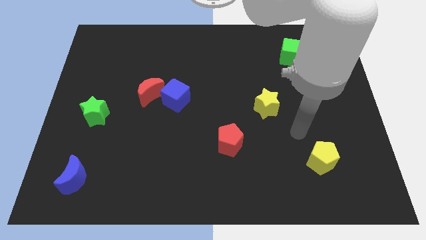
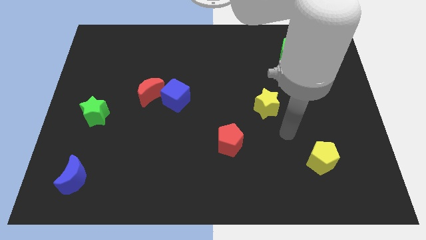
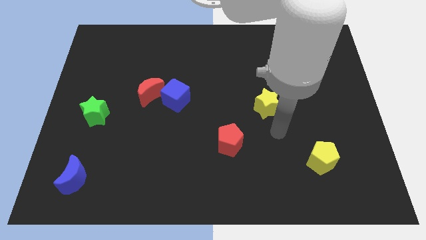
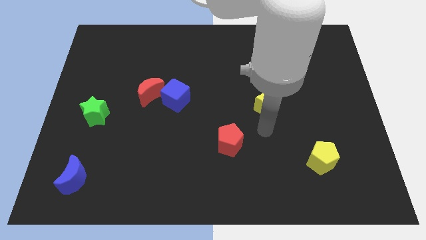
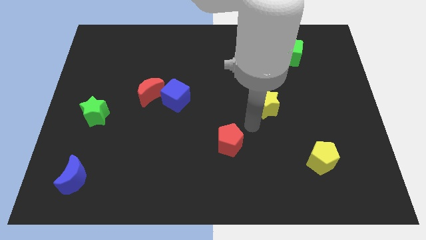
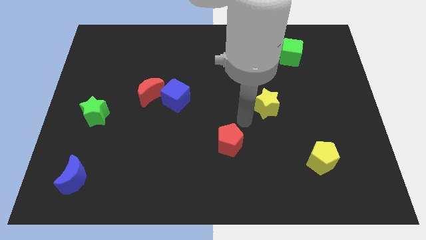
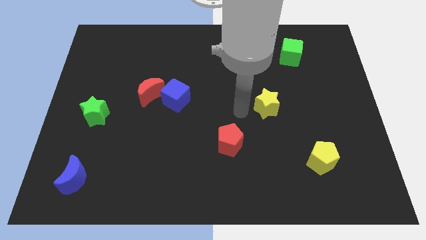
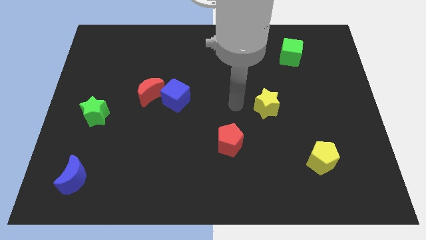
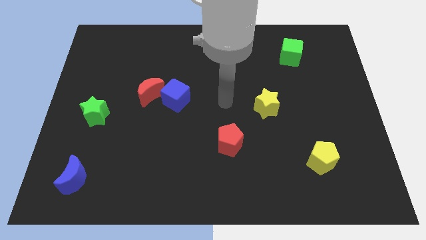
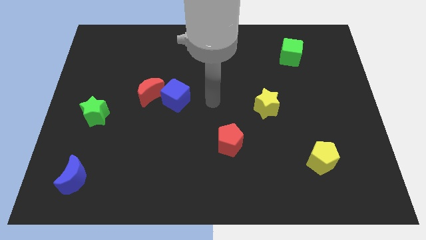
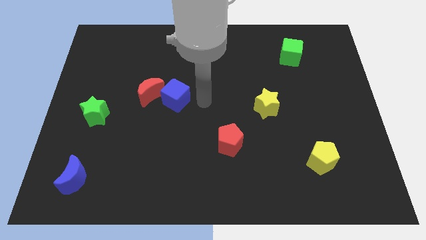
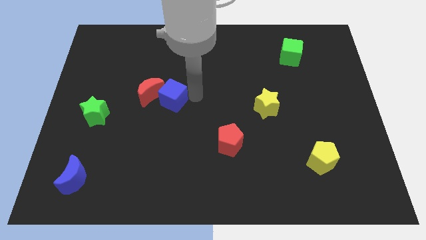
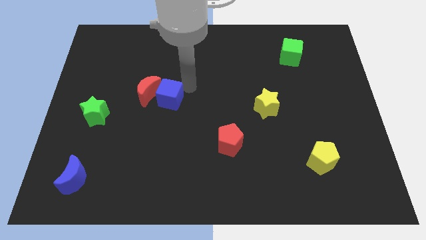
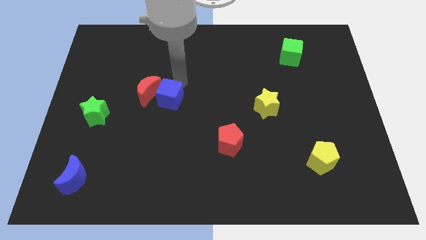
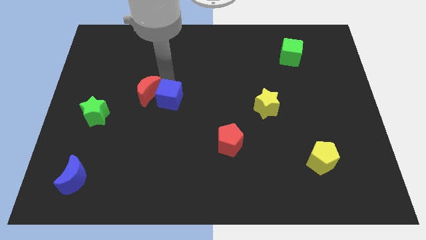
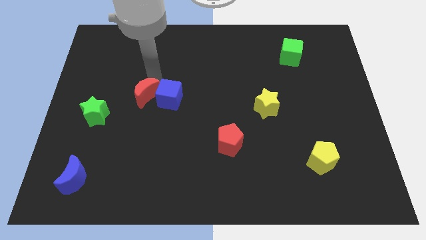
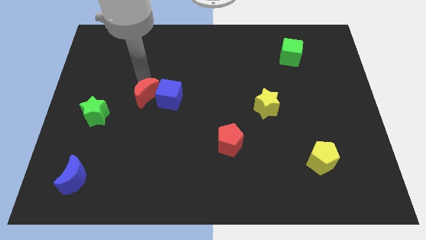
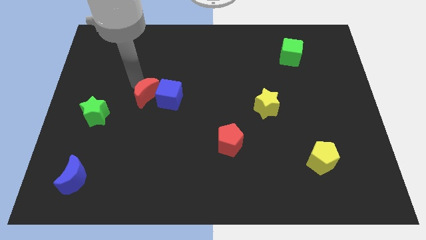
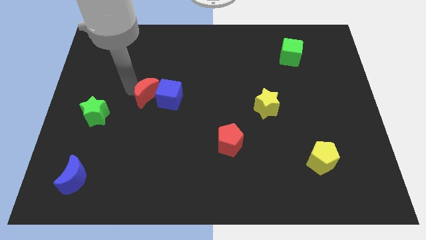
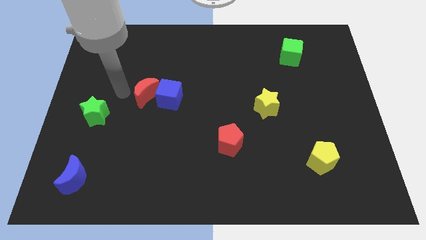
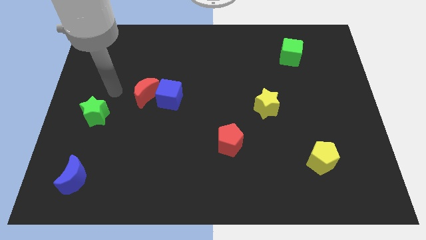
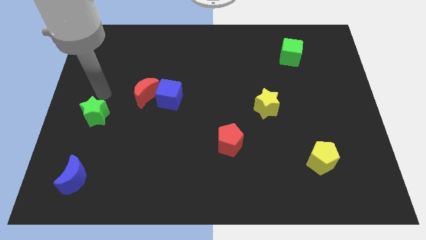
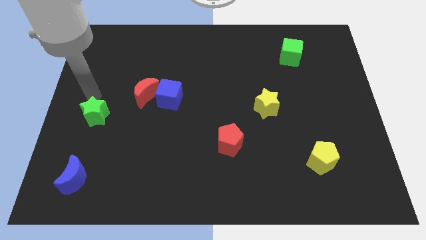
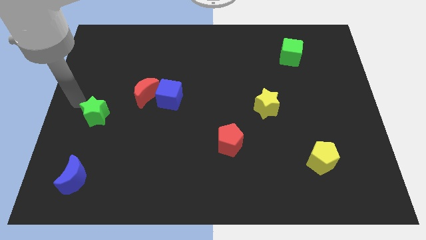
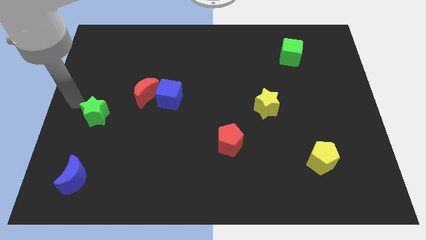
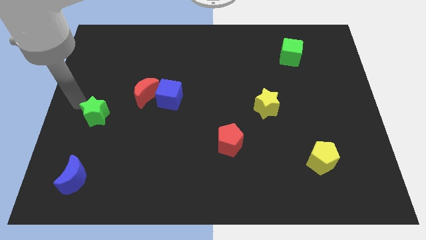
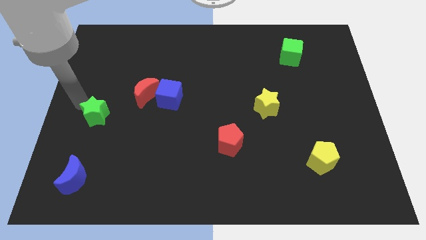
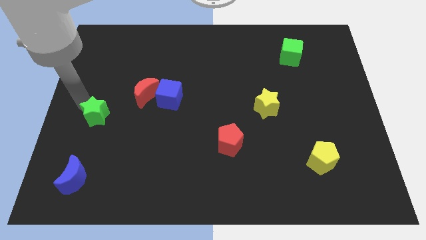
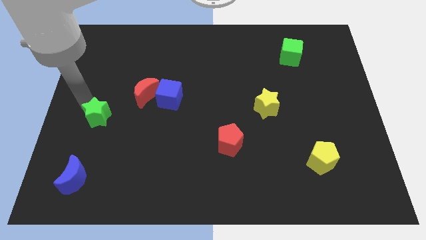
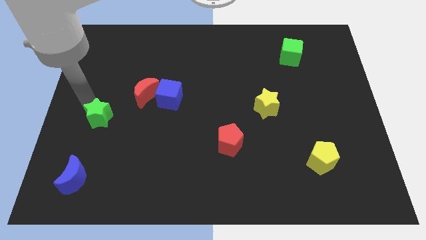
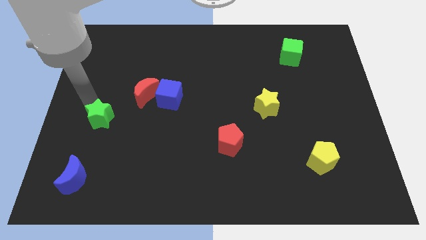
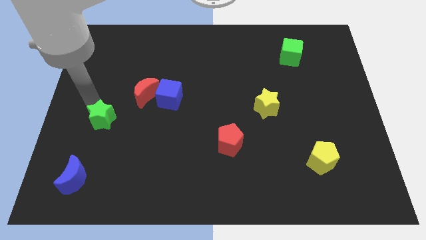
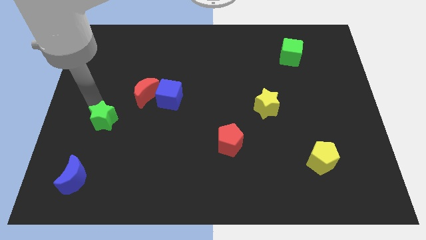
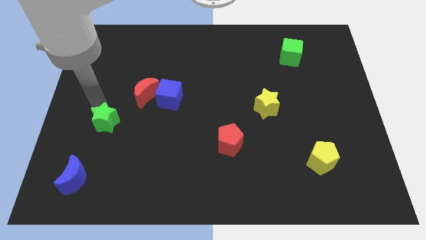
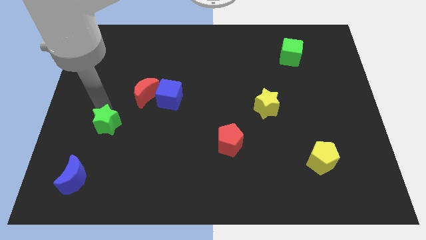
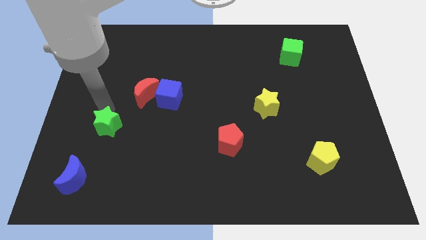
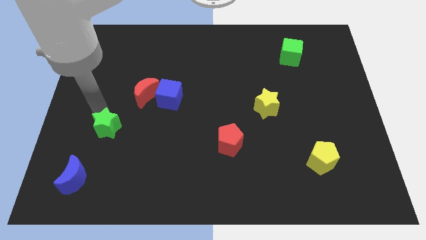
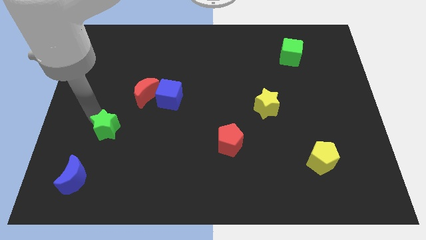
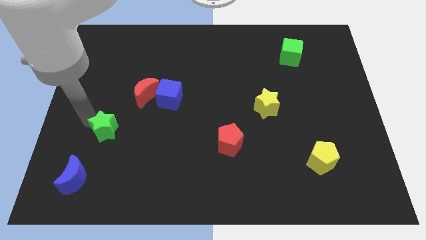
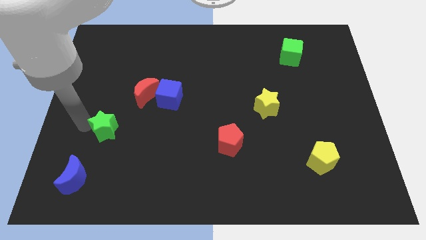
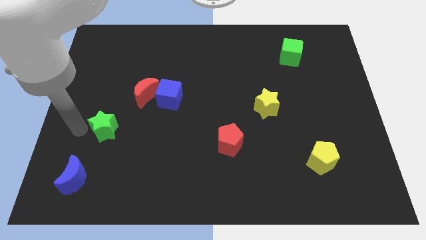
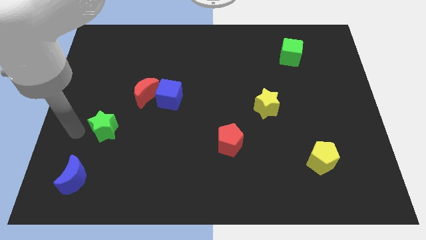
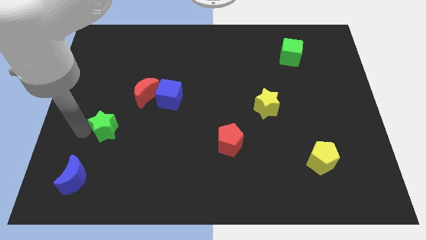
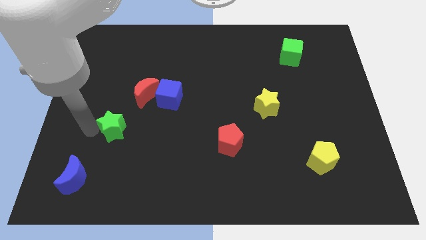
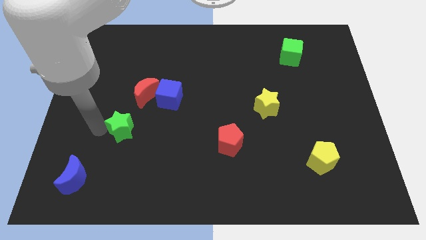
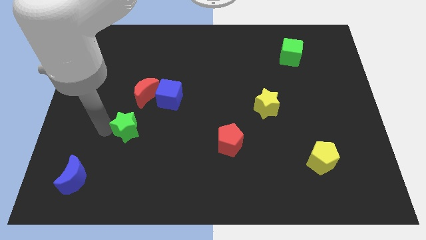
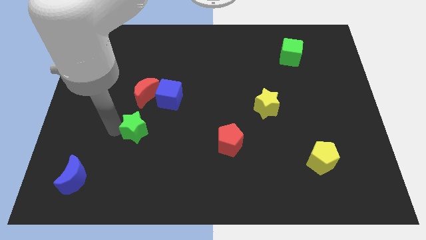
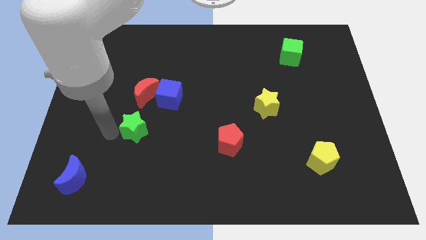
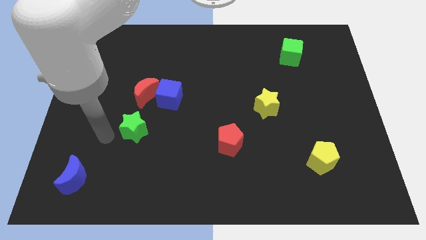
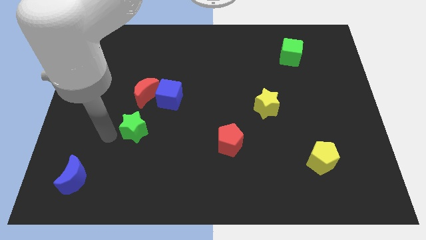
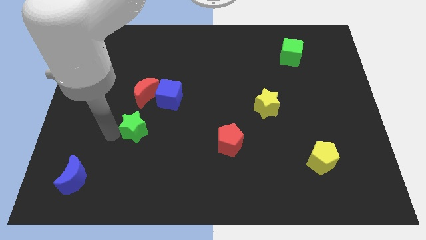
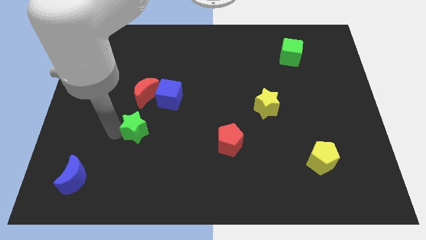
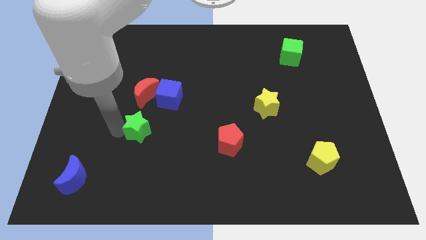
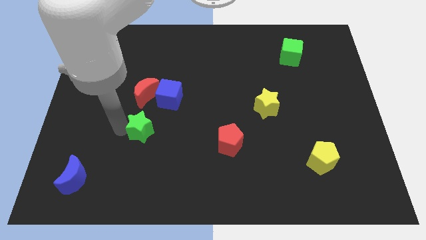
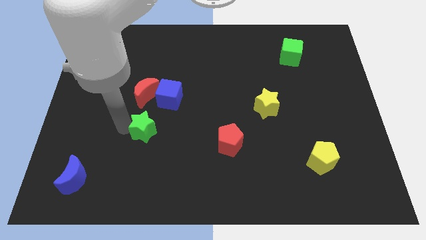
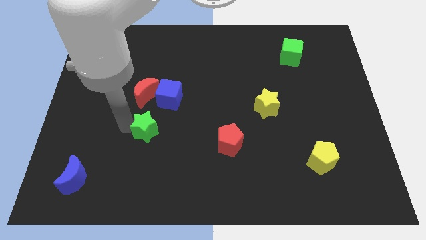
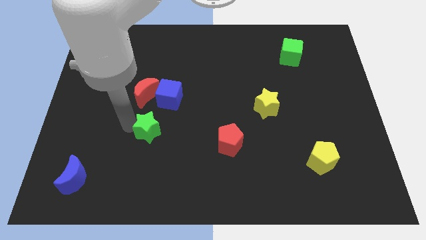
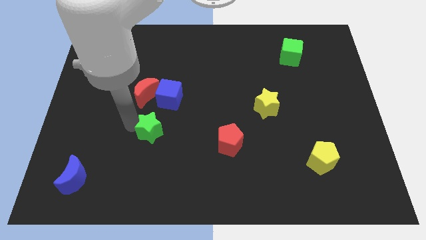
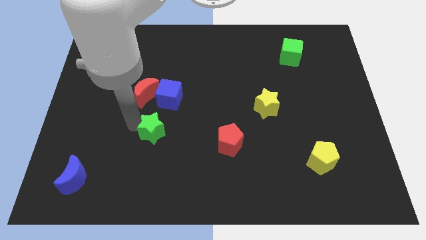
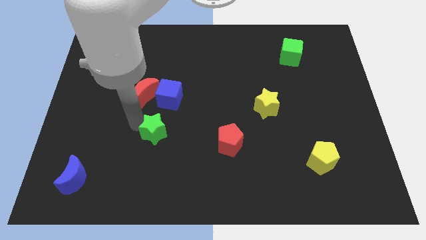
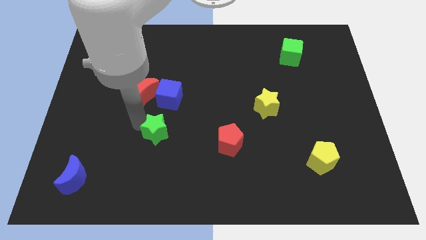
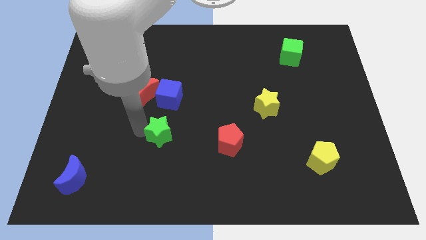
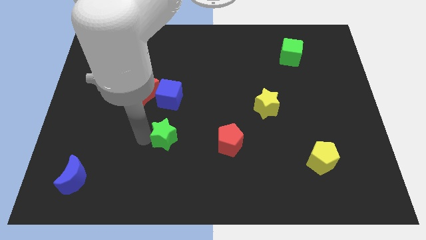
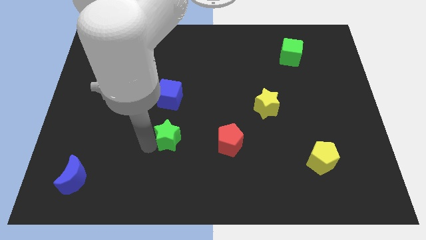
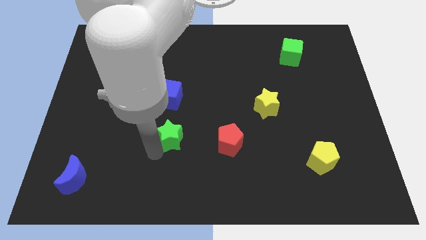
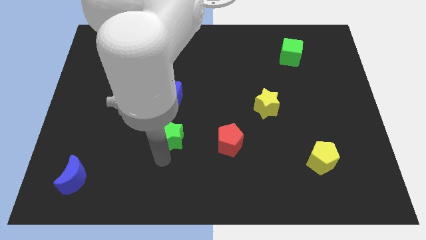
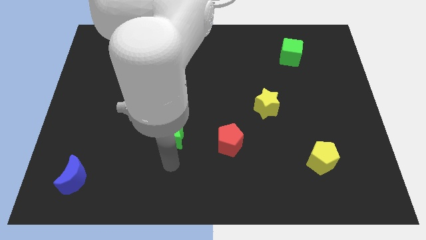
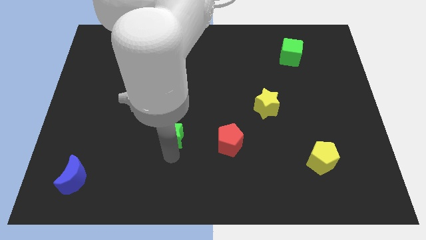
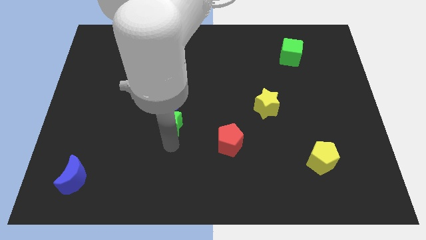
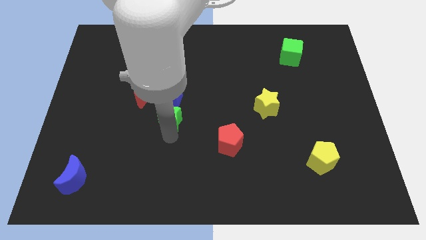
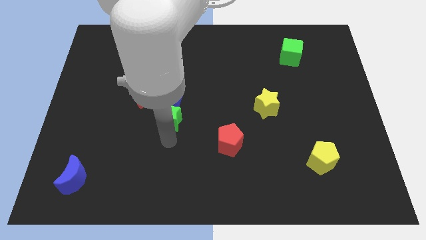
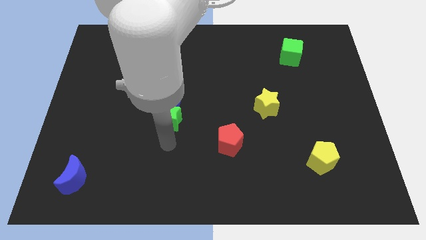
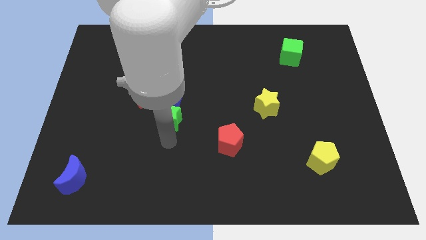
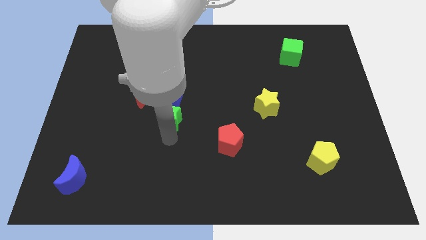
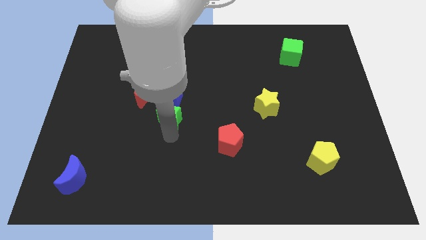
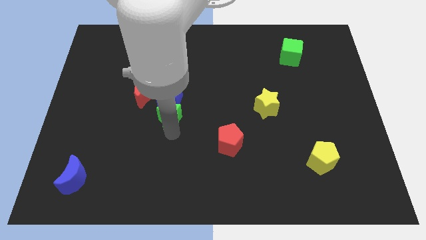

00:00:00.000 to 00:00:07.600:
push the green star close to the blue cube
